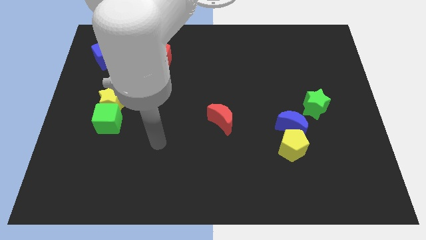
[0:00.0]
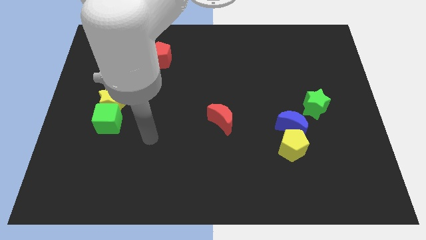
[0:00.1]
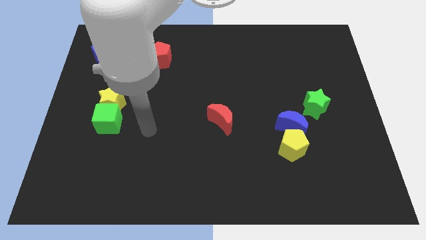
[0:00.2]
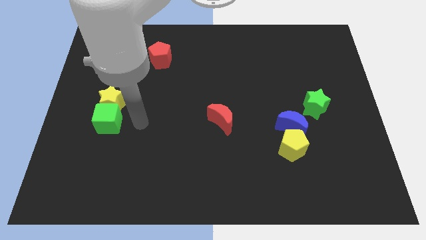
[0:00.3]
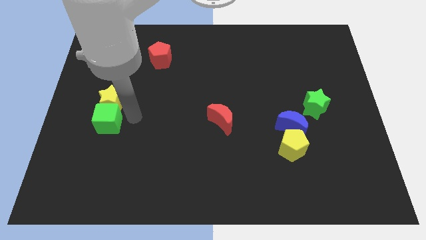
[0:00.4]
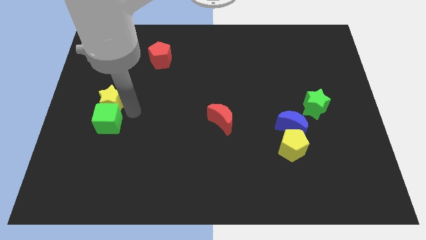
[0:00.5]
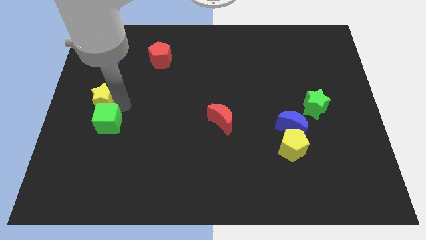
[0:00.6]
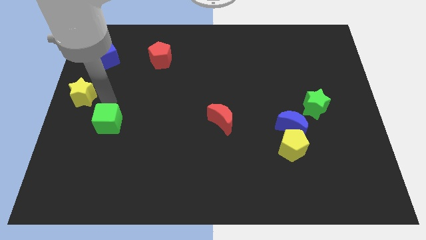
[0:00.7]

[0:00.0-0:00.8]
separate the green cube from the yellow star

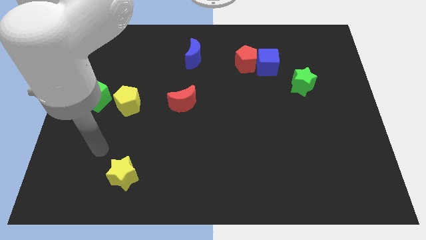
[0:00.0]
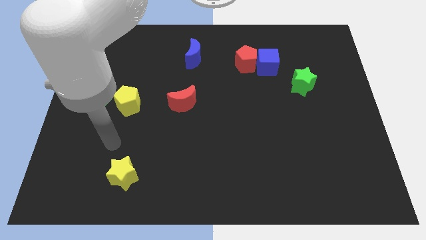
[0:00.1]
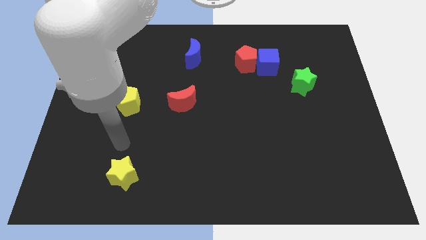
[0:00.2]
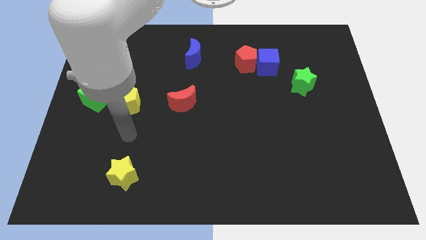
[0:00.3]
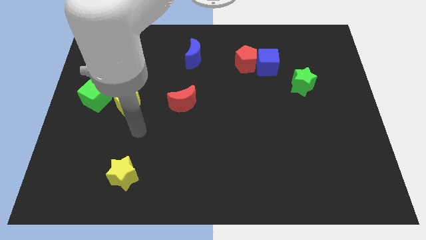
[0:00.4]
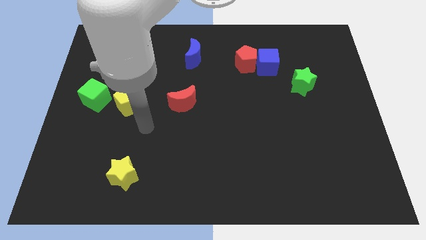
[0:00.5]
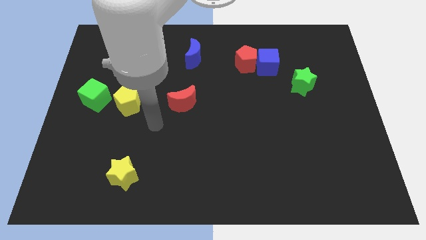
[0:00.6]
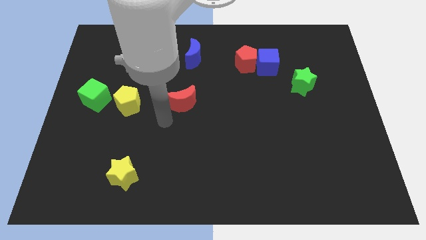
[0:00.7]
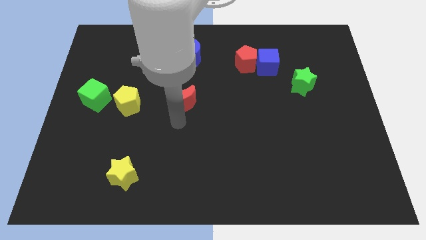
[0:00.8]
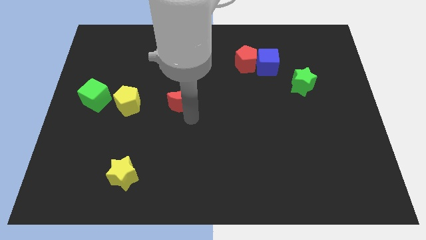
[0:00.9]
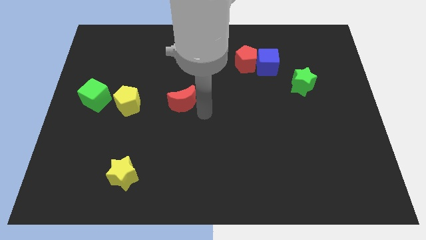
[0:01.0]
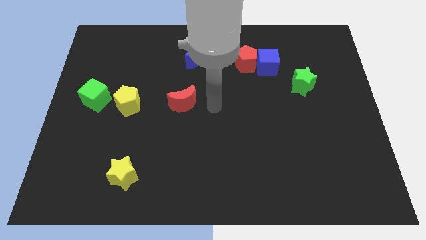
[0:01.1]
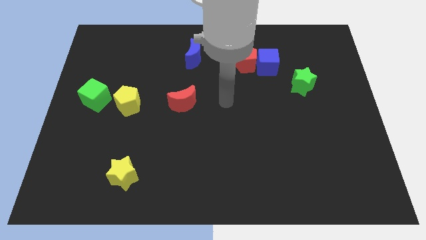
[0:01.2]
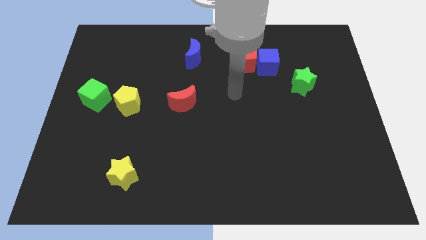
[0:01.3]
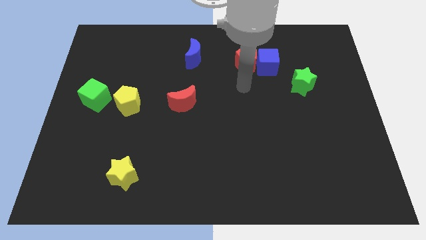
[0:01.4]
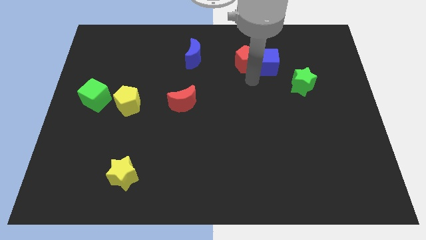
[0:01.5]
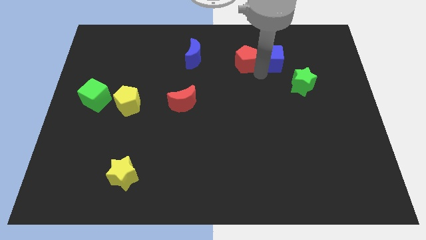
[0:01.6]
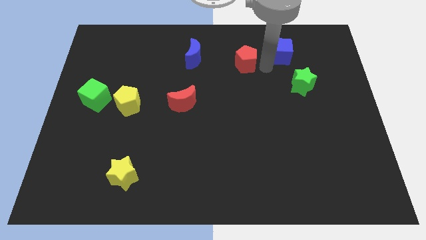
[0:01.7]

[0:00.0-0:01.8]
pull the red pentagon apart from the blue cube

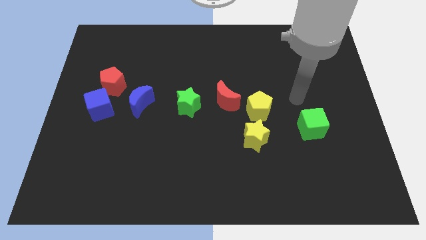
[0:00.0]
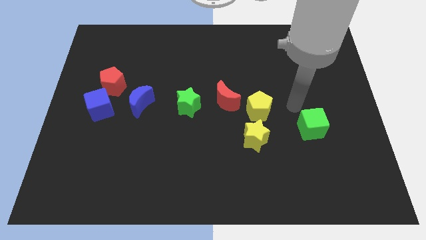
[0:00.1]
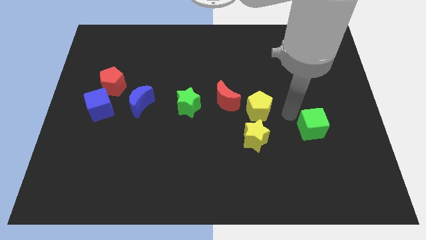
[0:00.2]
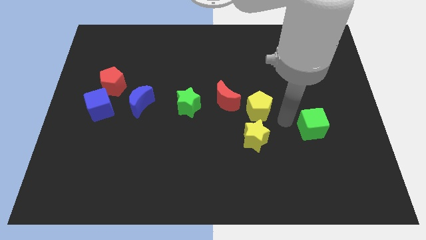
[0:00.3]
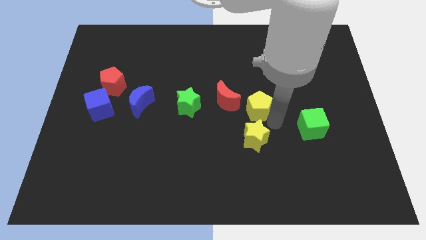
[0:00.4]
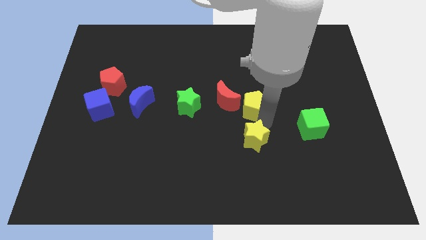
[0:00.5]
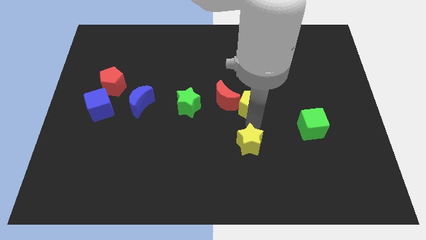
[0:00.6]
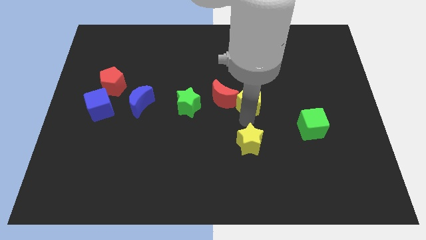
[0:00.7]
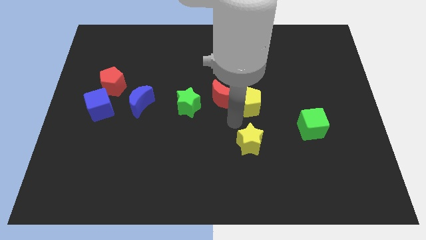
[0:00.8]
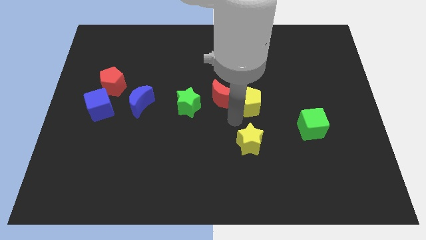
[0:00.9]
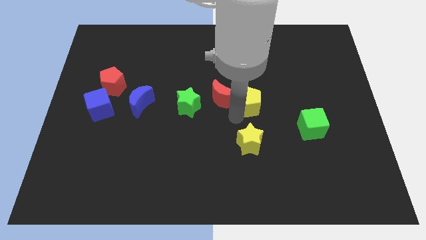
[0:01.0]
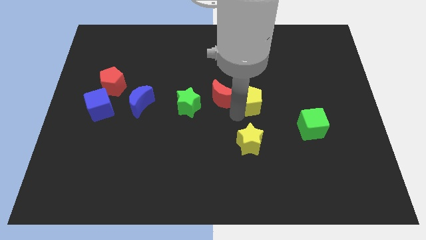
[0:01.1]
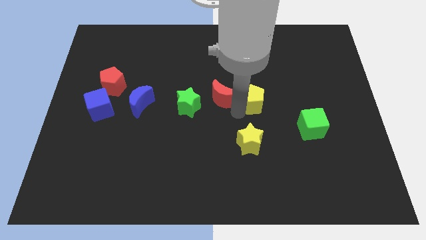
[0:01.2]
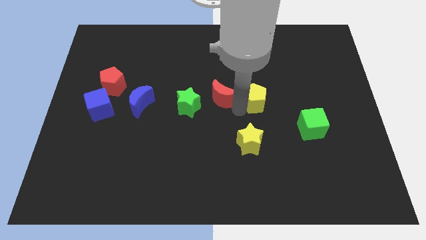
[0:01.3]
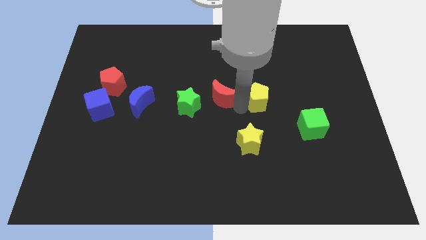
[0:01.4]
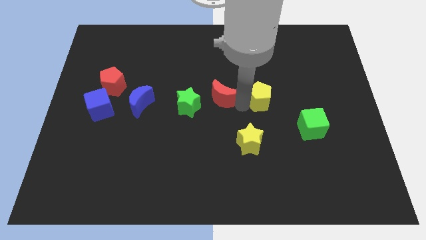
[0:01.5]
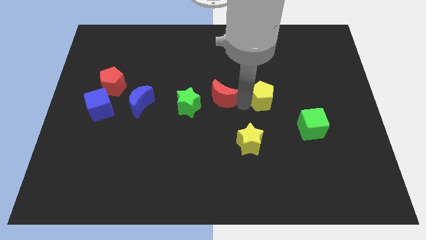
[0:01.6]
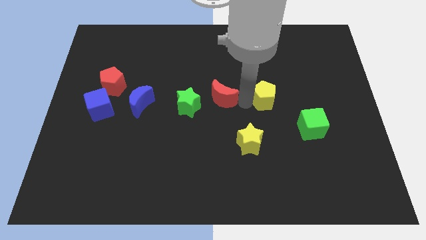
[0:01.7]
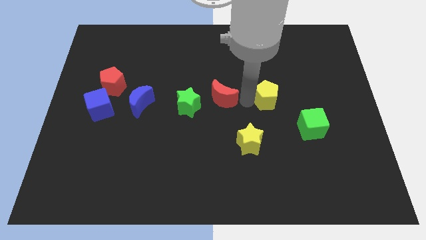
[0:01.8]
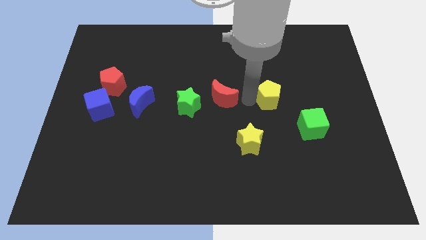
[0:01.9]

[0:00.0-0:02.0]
move the yellow pentagon away from the red moon and yellow star

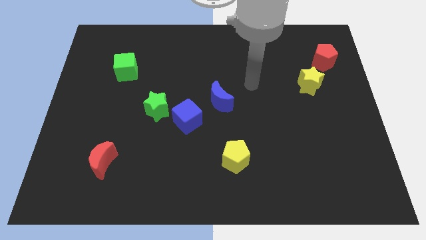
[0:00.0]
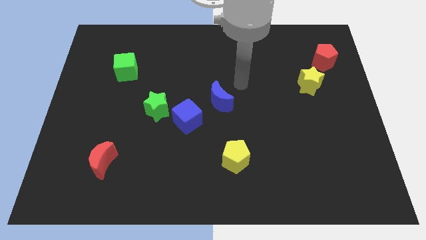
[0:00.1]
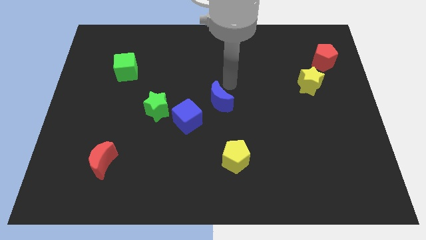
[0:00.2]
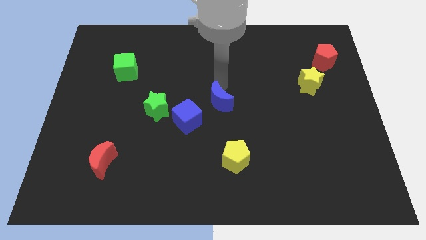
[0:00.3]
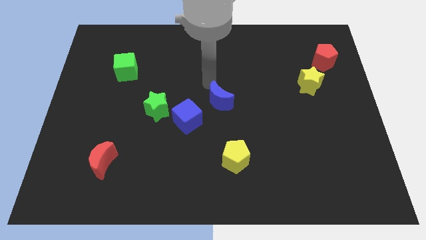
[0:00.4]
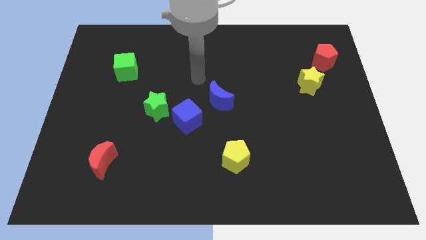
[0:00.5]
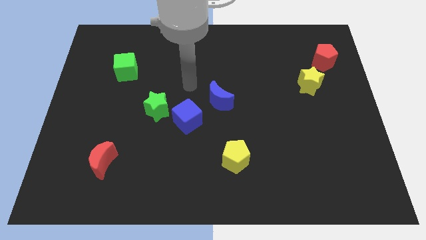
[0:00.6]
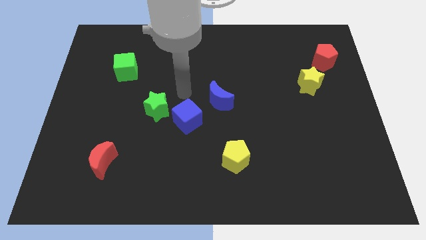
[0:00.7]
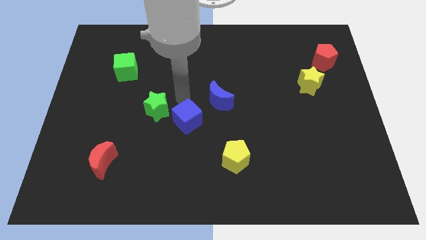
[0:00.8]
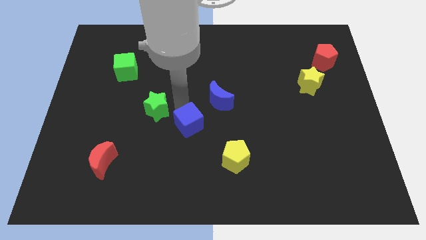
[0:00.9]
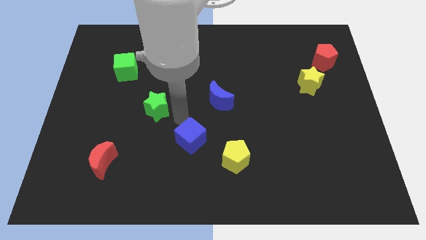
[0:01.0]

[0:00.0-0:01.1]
pull the green star apart from the blue cube

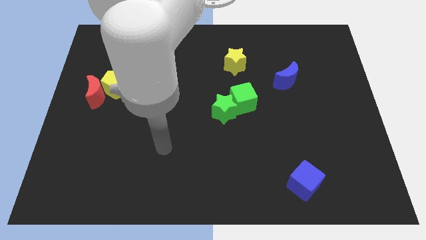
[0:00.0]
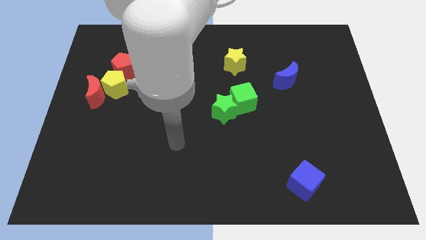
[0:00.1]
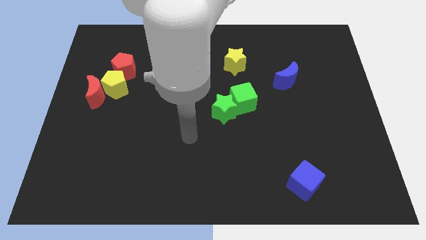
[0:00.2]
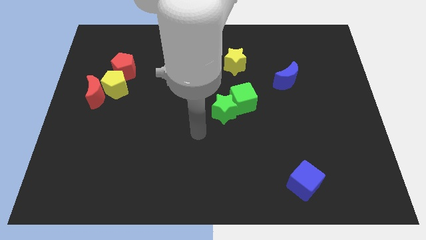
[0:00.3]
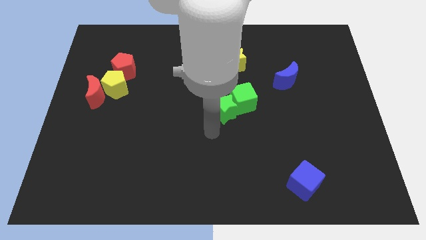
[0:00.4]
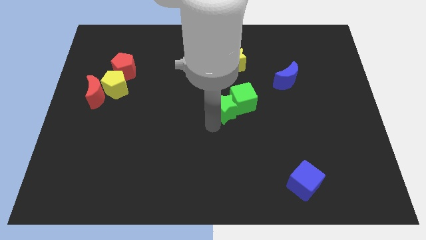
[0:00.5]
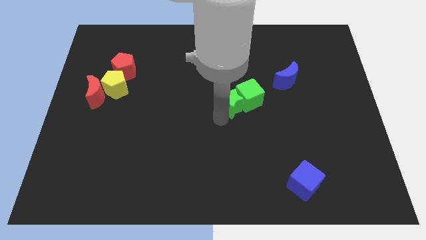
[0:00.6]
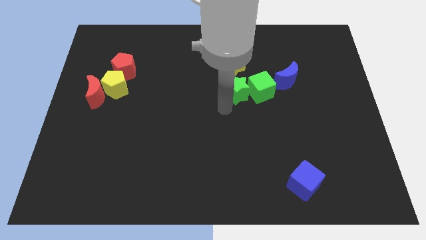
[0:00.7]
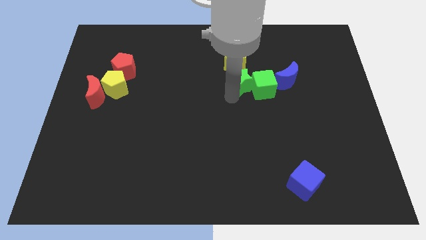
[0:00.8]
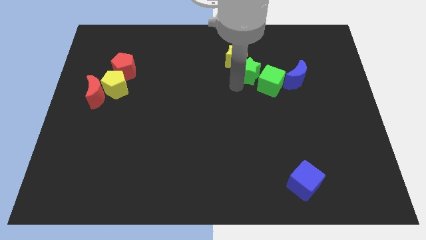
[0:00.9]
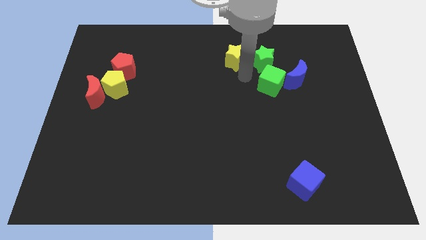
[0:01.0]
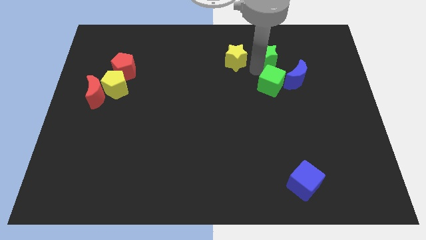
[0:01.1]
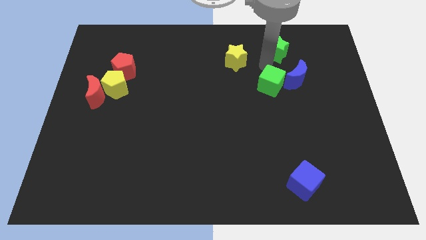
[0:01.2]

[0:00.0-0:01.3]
separate the green cube from the green star

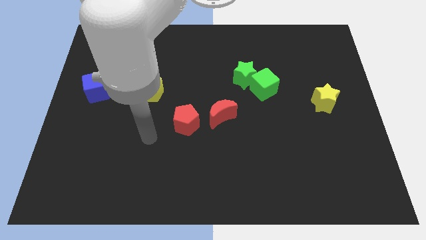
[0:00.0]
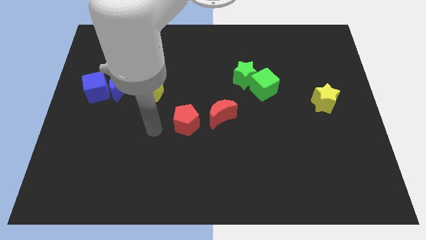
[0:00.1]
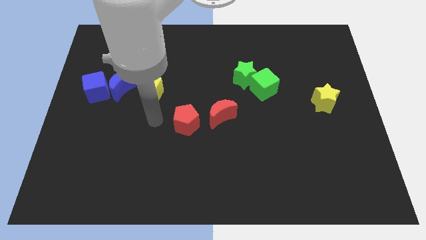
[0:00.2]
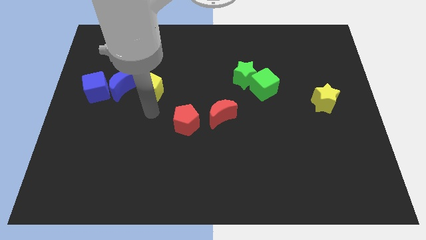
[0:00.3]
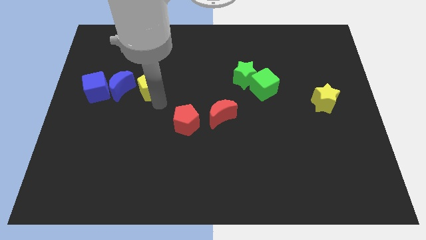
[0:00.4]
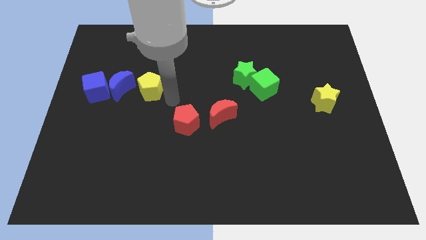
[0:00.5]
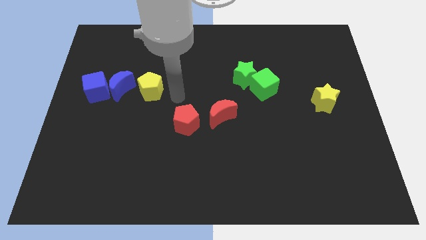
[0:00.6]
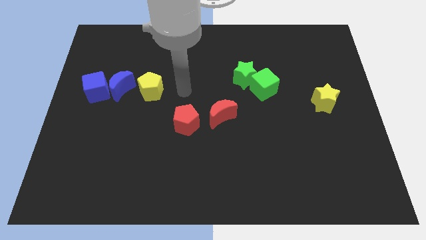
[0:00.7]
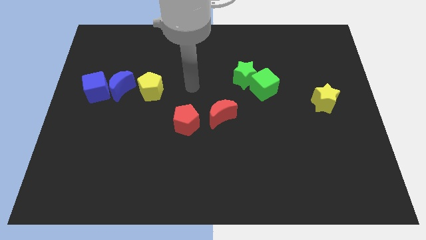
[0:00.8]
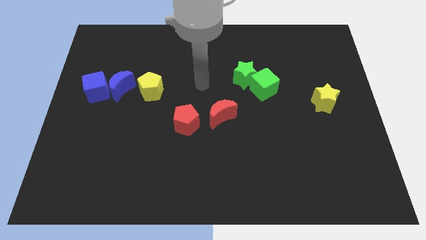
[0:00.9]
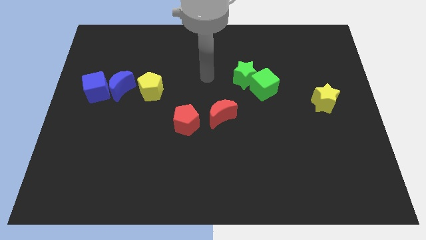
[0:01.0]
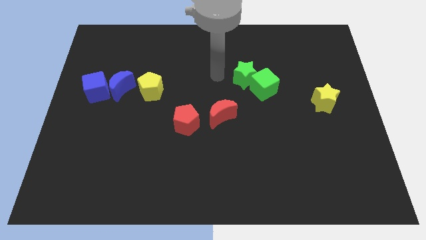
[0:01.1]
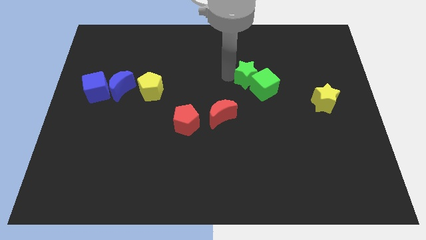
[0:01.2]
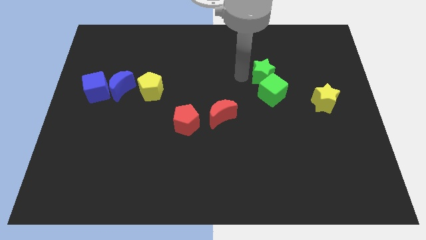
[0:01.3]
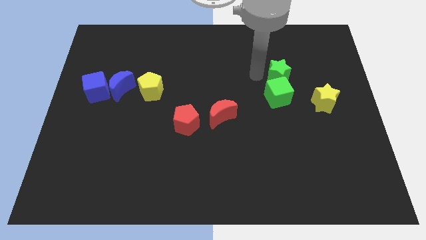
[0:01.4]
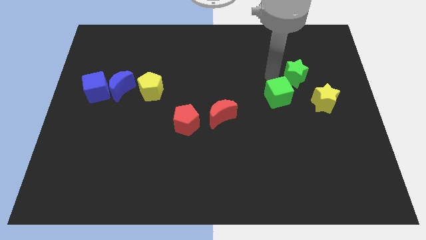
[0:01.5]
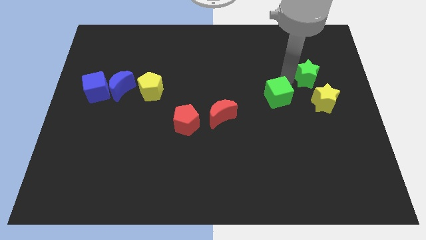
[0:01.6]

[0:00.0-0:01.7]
pull the green cube apart from the green star

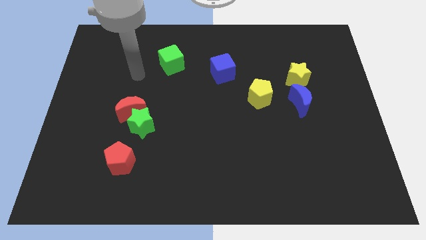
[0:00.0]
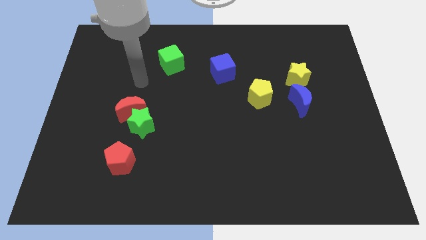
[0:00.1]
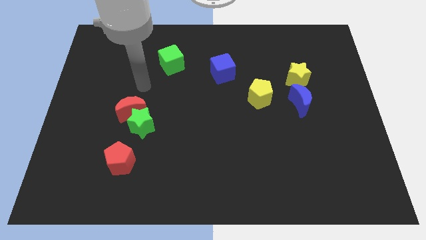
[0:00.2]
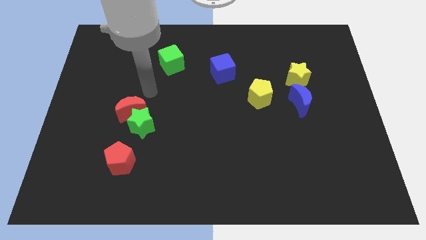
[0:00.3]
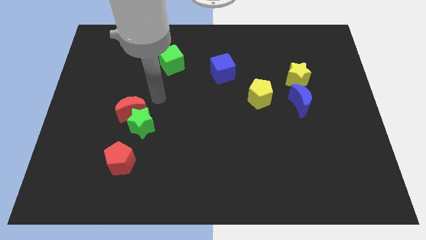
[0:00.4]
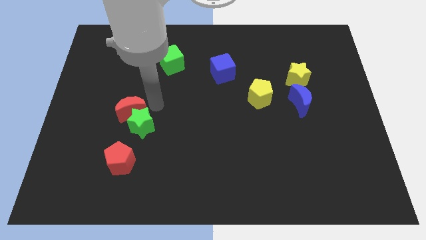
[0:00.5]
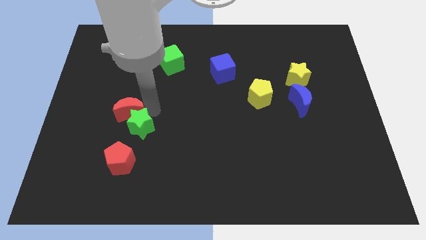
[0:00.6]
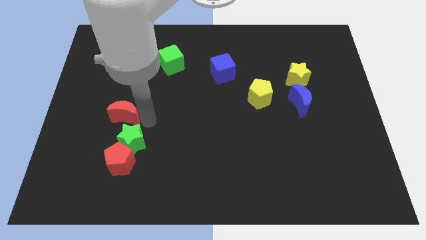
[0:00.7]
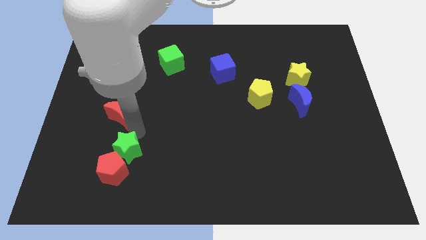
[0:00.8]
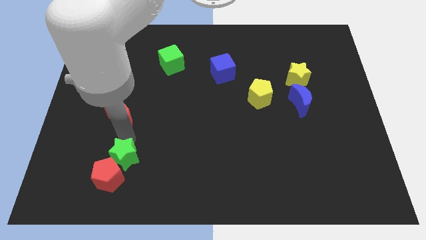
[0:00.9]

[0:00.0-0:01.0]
separate the red moon from the green star
